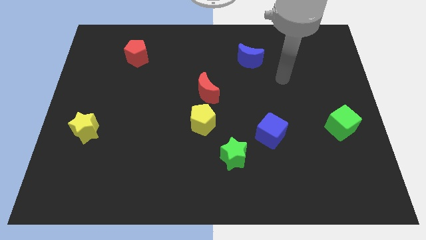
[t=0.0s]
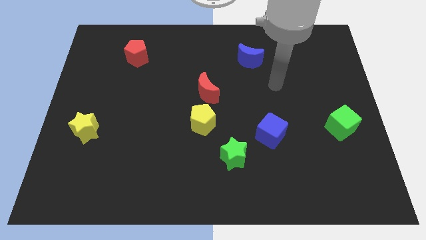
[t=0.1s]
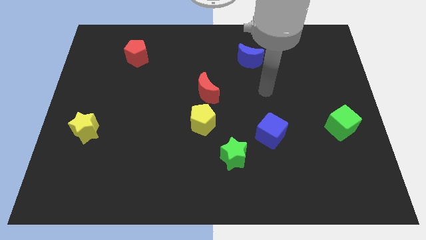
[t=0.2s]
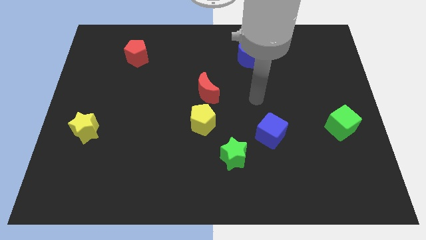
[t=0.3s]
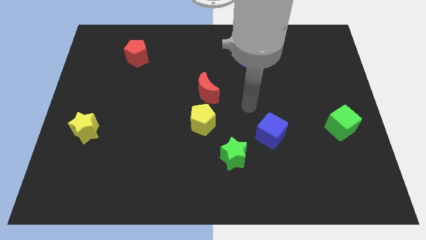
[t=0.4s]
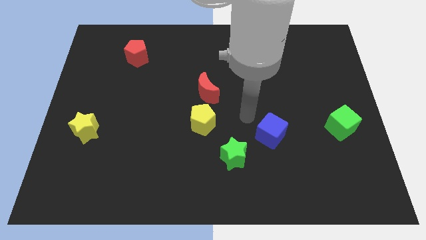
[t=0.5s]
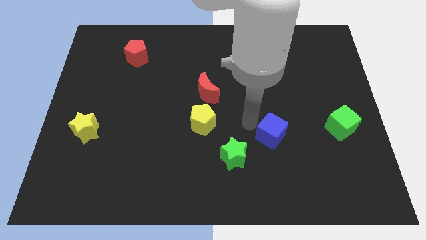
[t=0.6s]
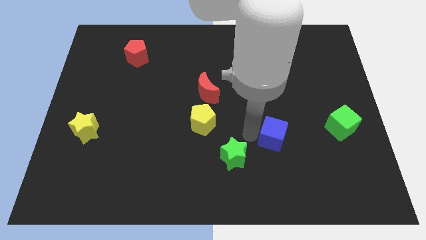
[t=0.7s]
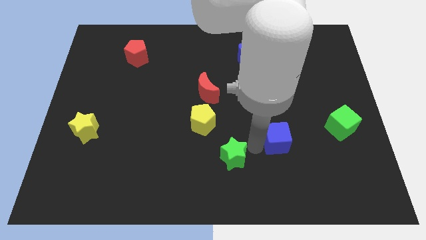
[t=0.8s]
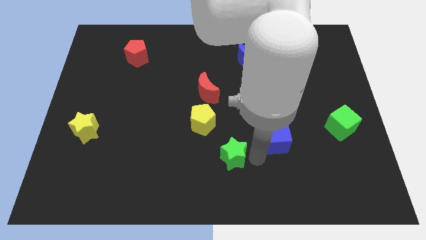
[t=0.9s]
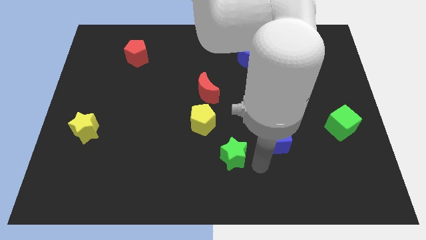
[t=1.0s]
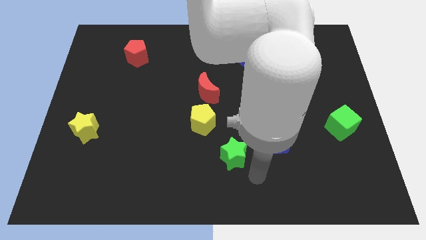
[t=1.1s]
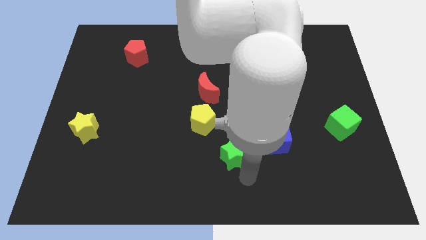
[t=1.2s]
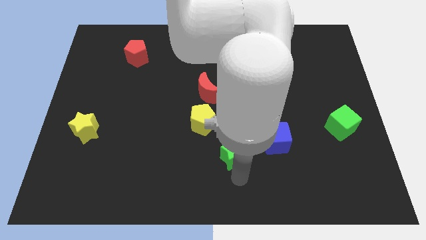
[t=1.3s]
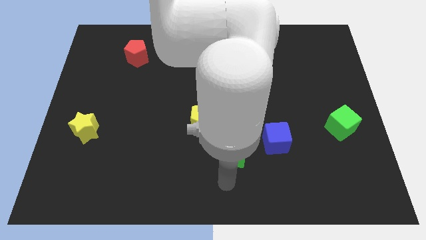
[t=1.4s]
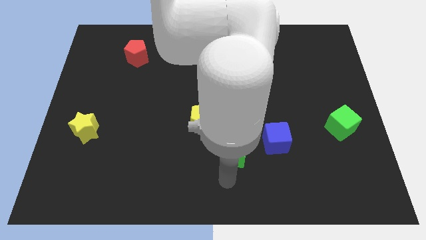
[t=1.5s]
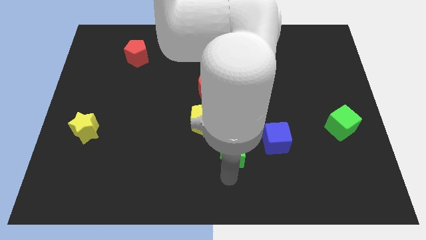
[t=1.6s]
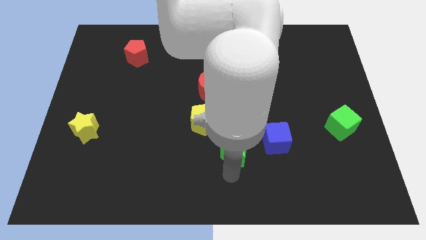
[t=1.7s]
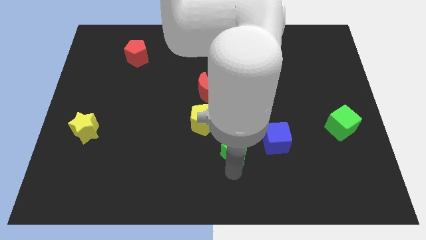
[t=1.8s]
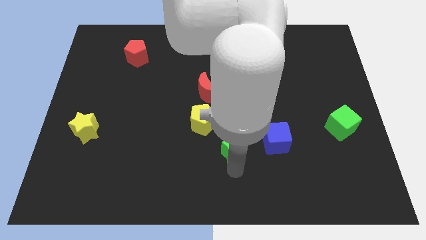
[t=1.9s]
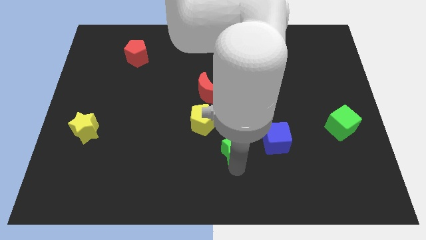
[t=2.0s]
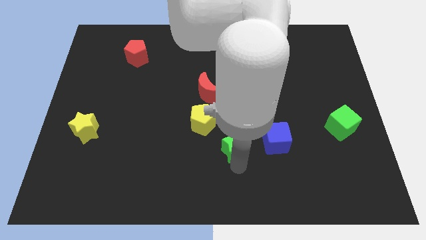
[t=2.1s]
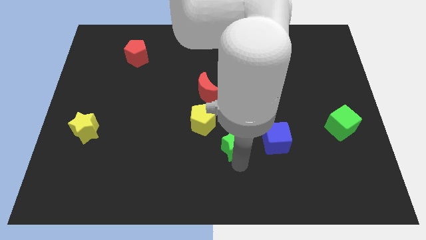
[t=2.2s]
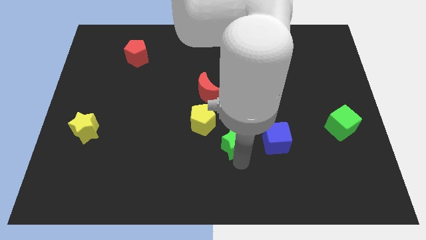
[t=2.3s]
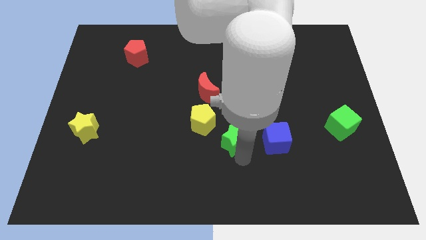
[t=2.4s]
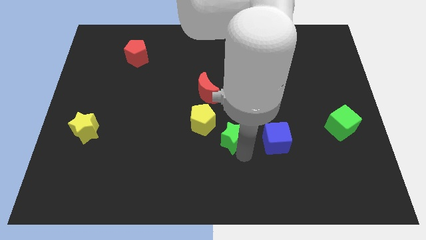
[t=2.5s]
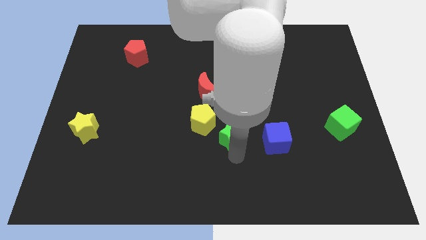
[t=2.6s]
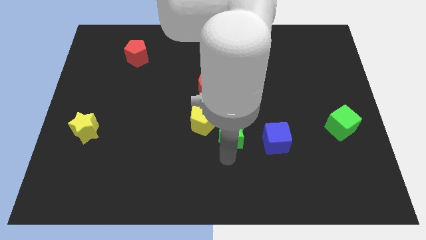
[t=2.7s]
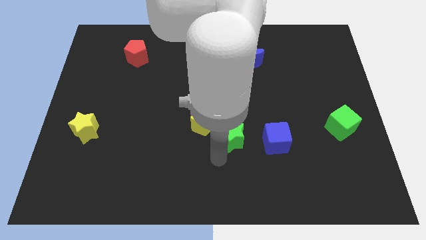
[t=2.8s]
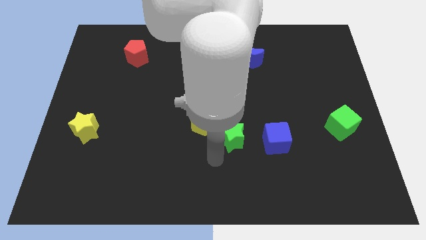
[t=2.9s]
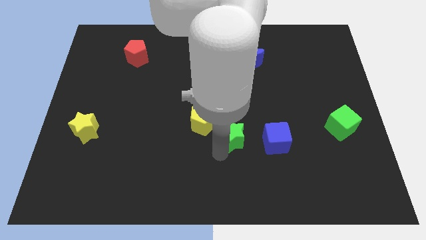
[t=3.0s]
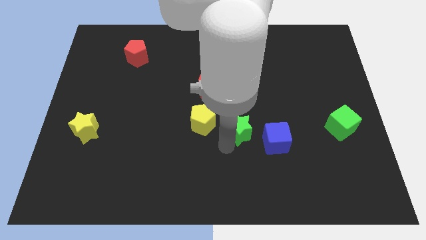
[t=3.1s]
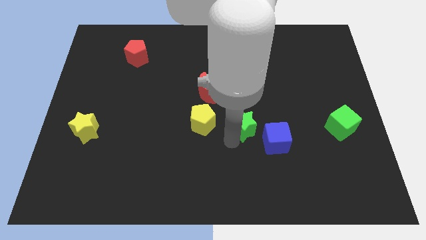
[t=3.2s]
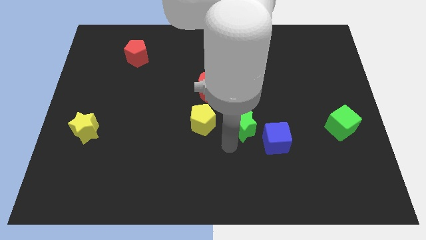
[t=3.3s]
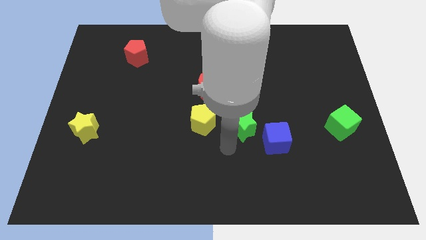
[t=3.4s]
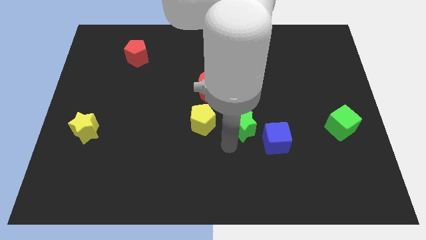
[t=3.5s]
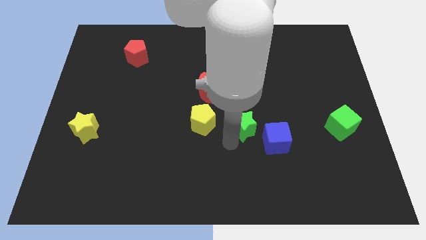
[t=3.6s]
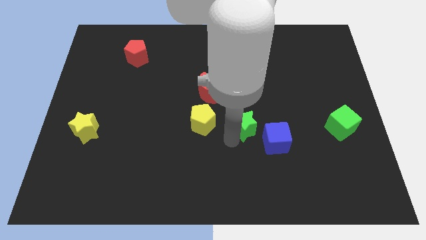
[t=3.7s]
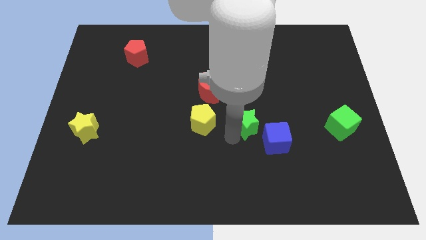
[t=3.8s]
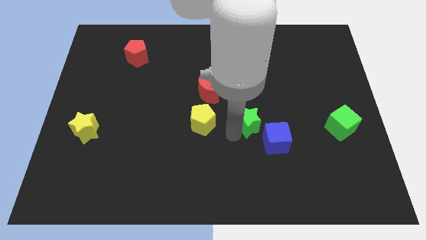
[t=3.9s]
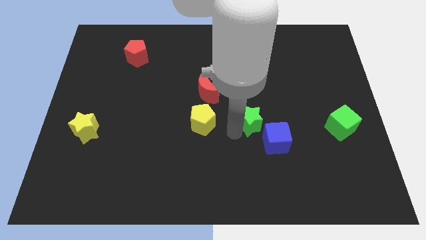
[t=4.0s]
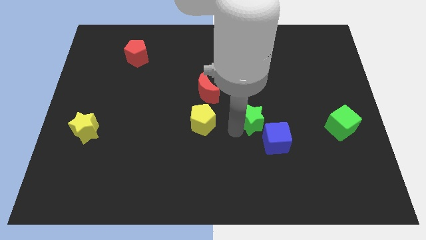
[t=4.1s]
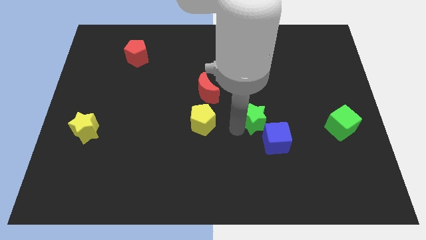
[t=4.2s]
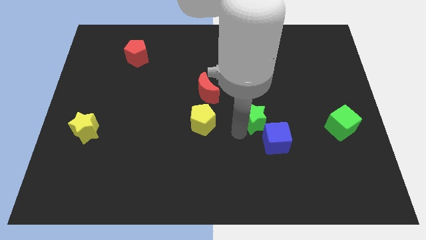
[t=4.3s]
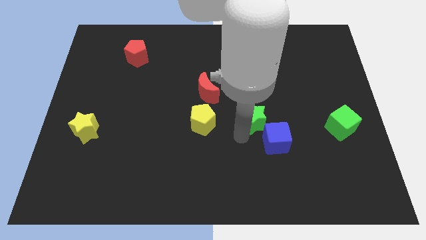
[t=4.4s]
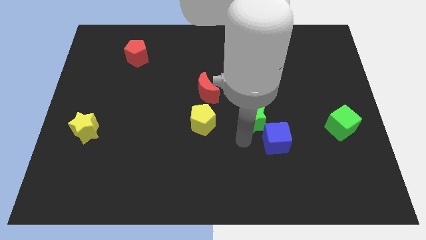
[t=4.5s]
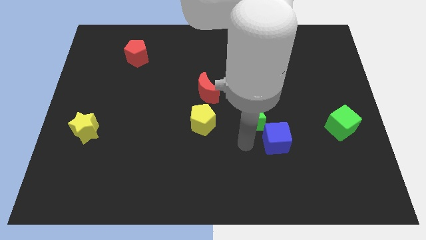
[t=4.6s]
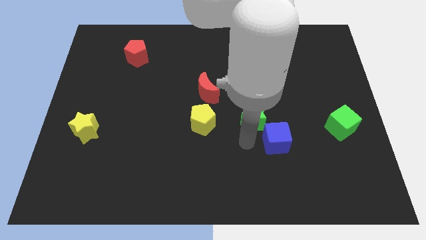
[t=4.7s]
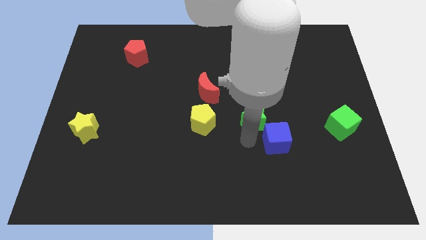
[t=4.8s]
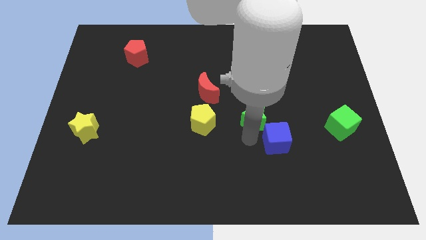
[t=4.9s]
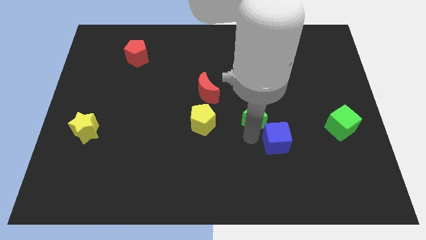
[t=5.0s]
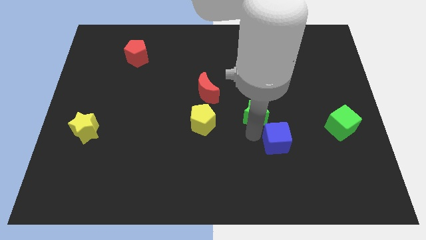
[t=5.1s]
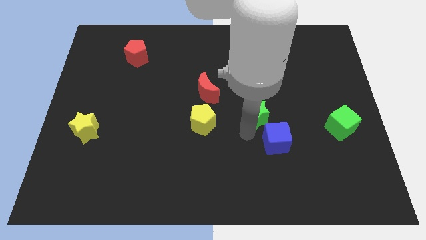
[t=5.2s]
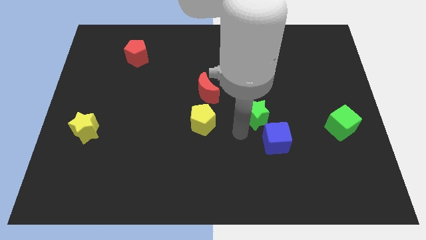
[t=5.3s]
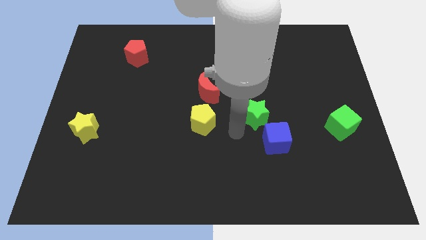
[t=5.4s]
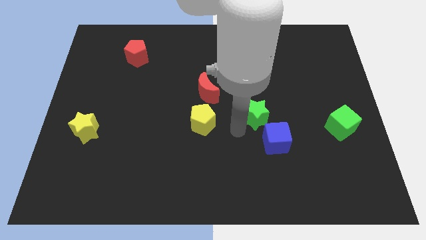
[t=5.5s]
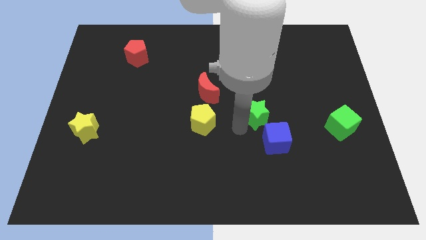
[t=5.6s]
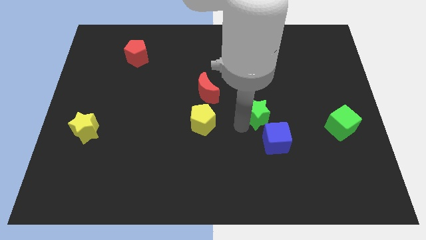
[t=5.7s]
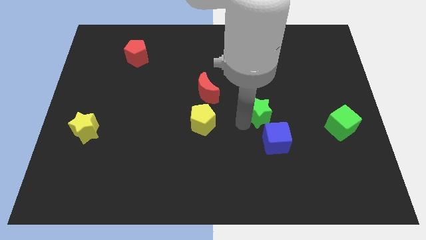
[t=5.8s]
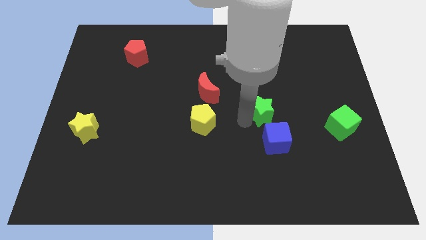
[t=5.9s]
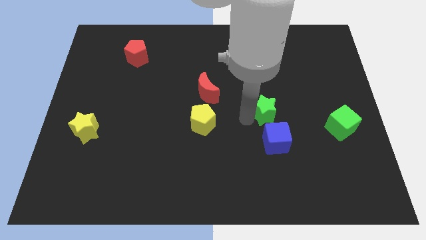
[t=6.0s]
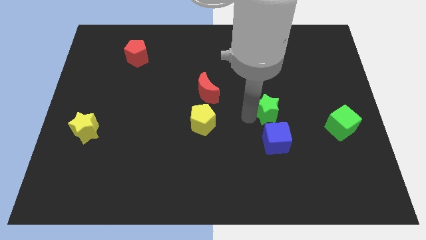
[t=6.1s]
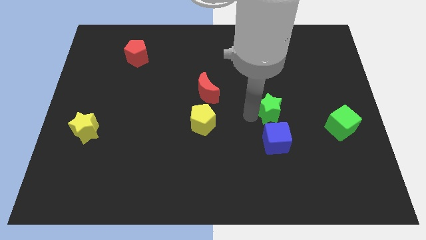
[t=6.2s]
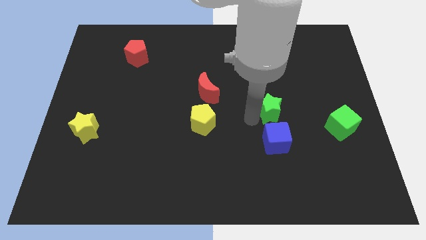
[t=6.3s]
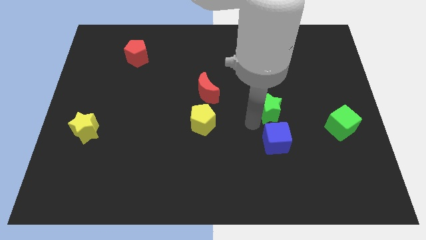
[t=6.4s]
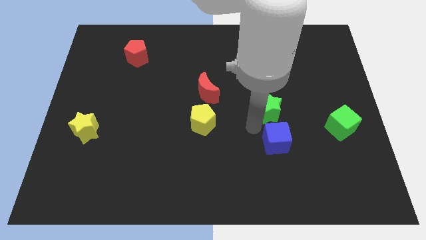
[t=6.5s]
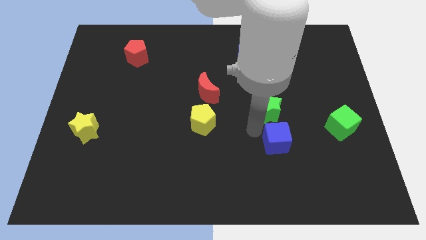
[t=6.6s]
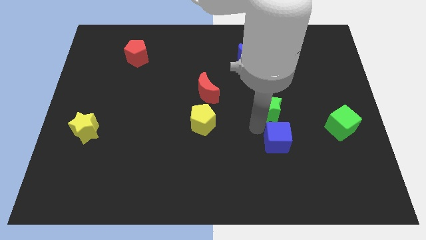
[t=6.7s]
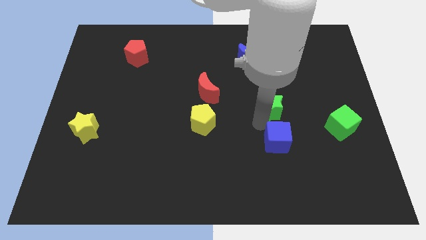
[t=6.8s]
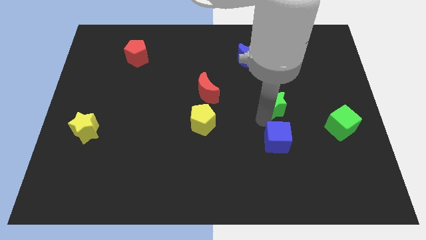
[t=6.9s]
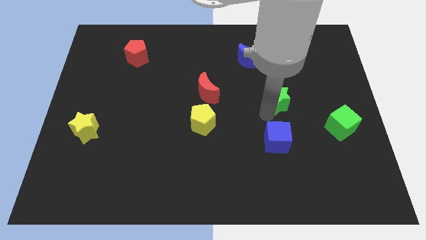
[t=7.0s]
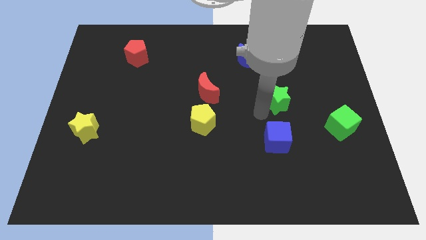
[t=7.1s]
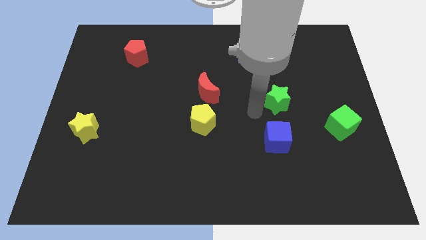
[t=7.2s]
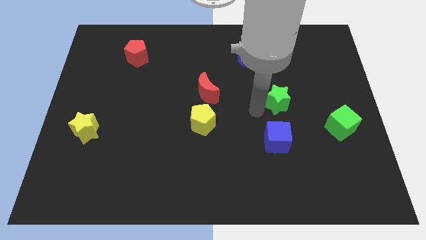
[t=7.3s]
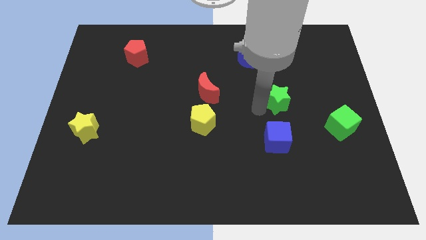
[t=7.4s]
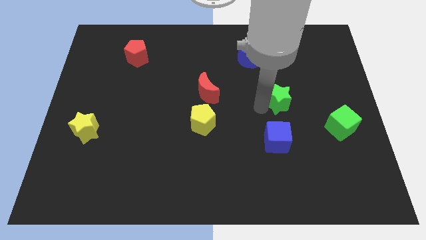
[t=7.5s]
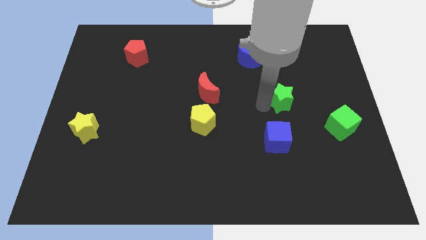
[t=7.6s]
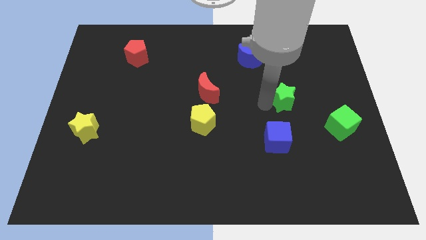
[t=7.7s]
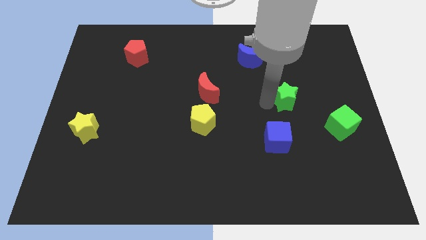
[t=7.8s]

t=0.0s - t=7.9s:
push the green star up and to the right

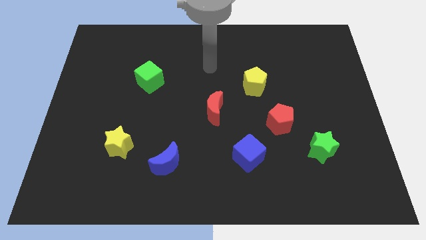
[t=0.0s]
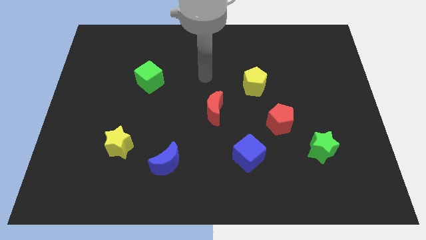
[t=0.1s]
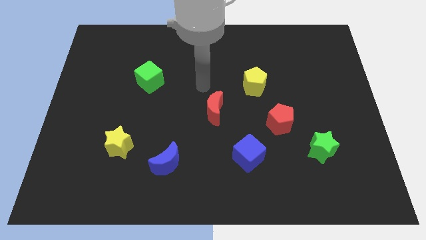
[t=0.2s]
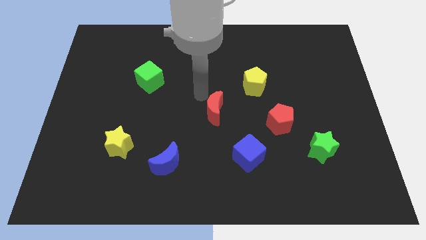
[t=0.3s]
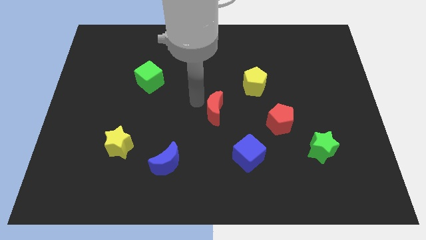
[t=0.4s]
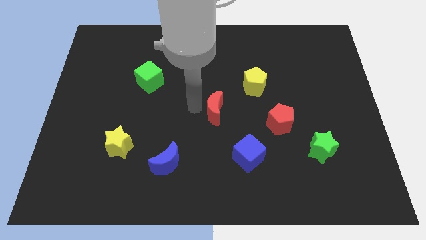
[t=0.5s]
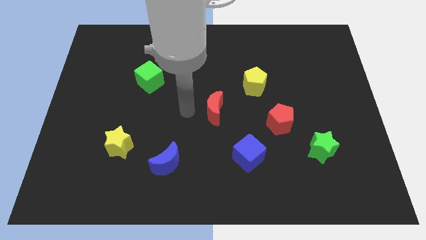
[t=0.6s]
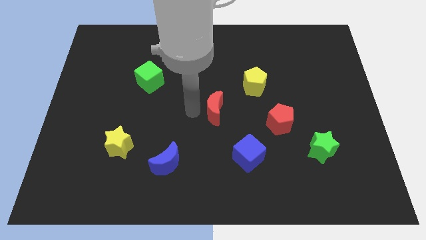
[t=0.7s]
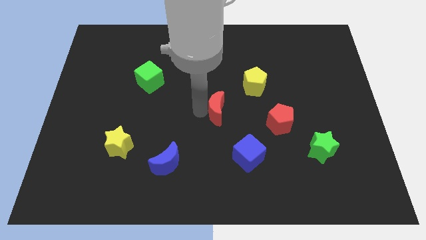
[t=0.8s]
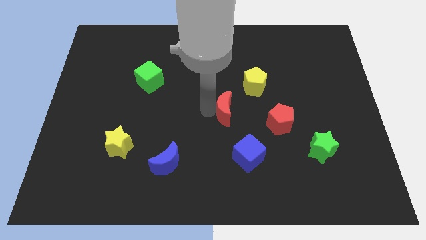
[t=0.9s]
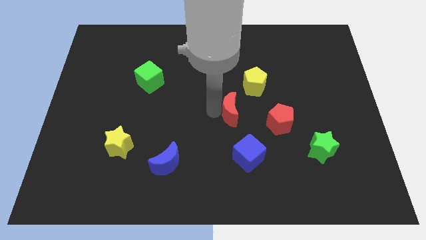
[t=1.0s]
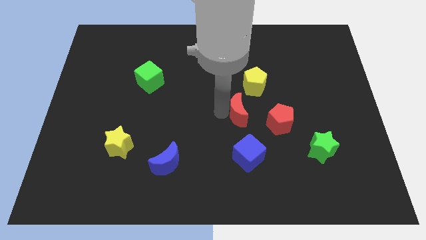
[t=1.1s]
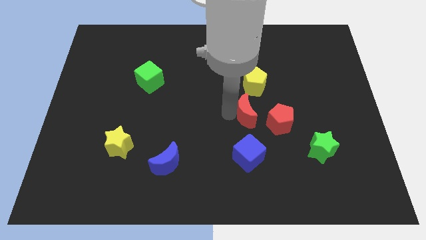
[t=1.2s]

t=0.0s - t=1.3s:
slightly move the red moon right
